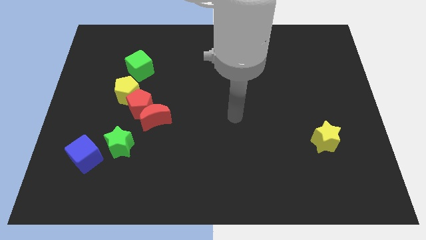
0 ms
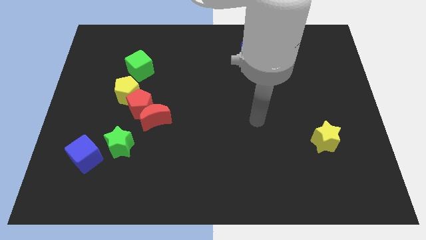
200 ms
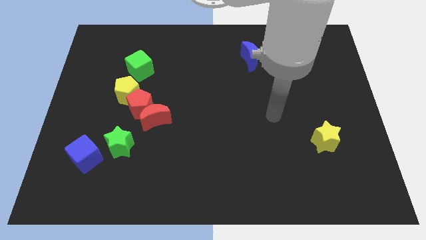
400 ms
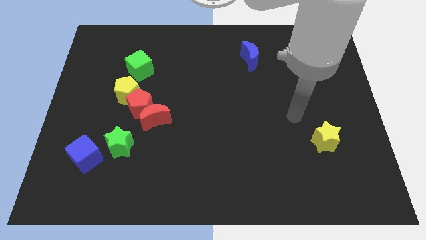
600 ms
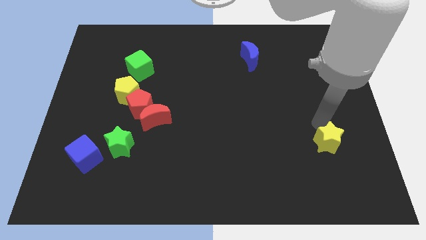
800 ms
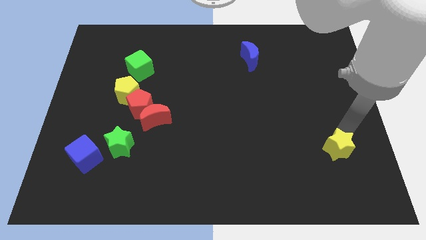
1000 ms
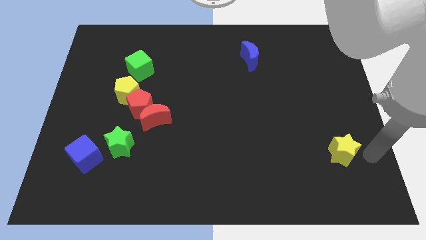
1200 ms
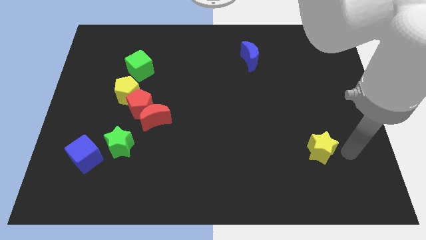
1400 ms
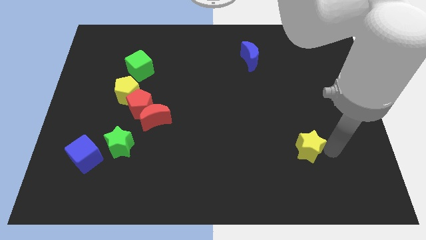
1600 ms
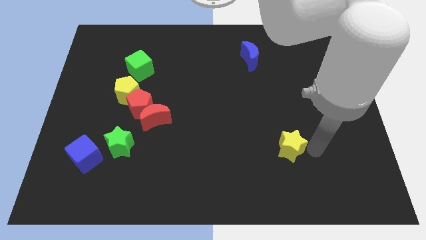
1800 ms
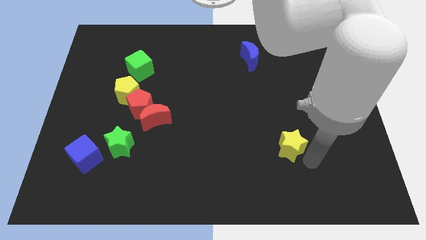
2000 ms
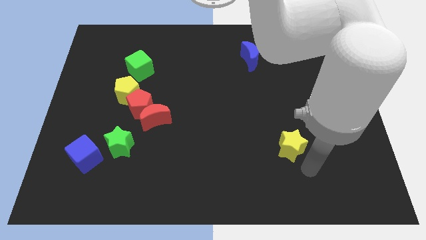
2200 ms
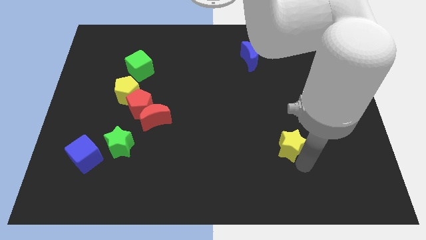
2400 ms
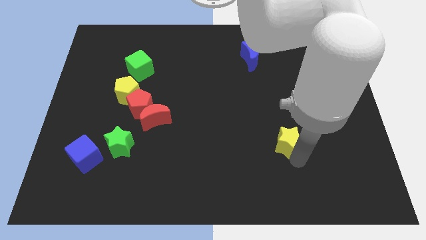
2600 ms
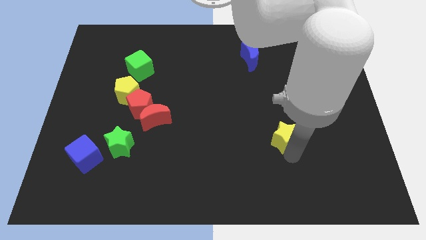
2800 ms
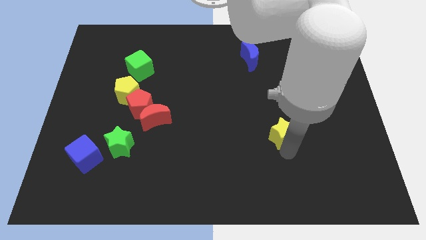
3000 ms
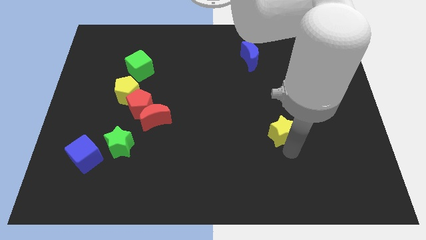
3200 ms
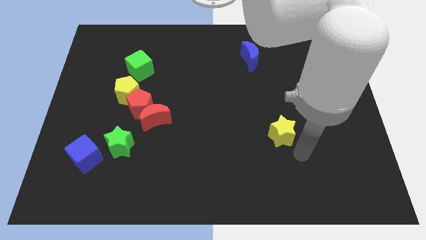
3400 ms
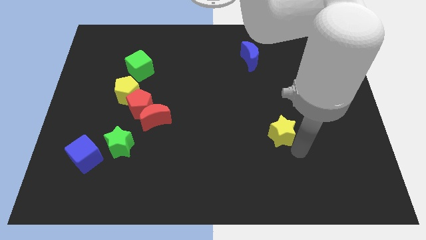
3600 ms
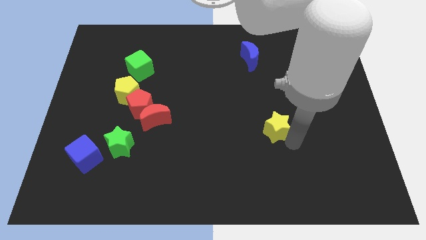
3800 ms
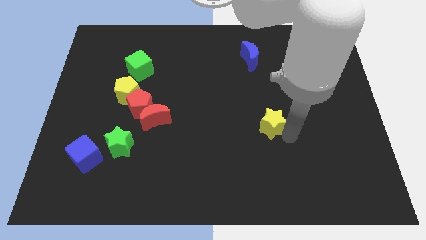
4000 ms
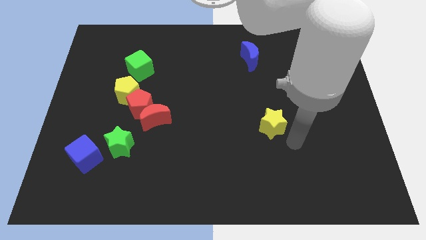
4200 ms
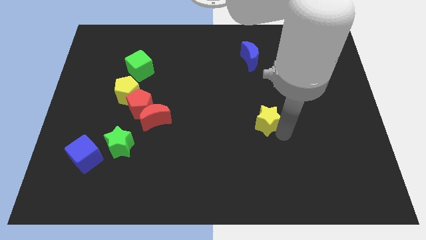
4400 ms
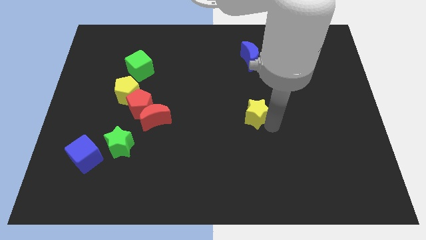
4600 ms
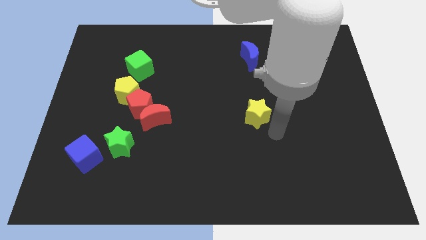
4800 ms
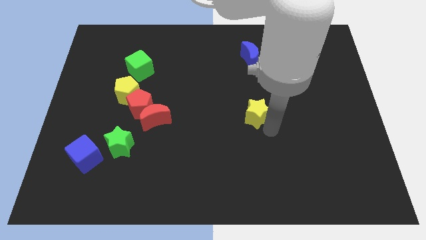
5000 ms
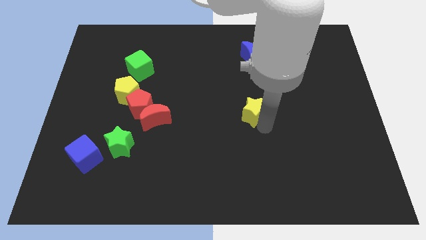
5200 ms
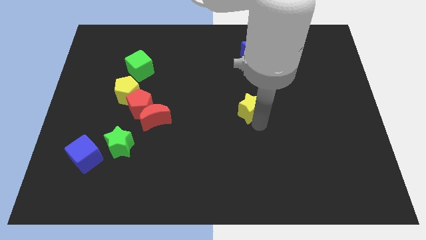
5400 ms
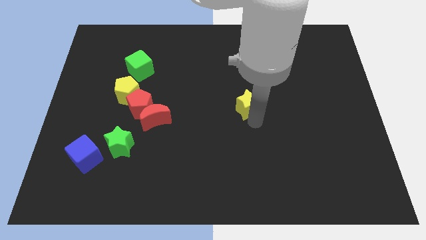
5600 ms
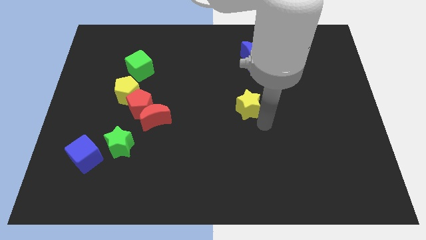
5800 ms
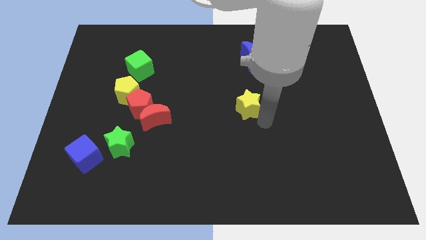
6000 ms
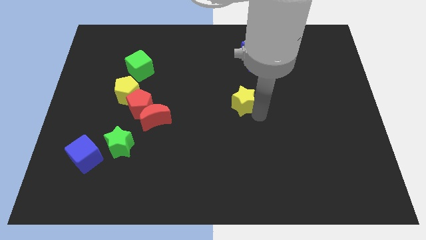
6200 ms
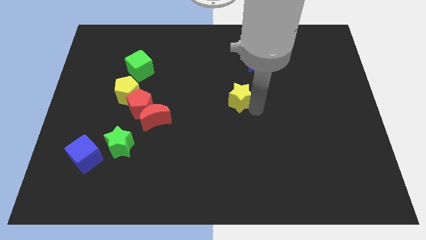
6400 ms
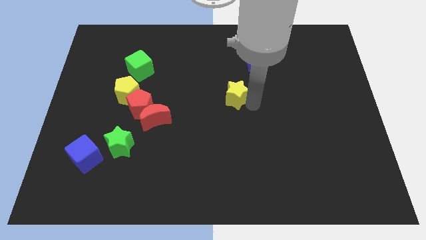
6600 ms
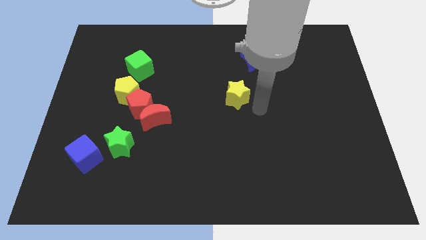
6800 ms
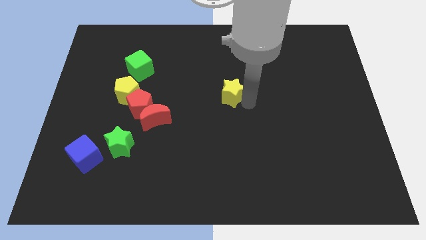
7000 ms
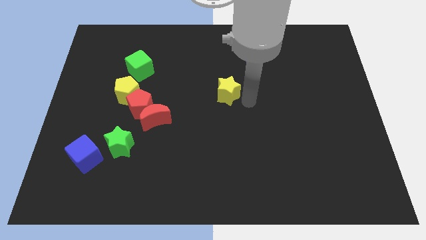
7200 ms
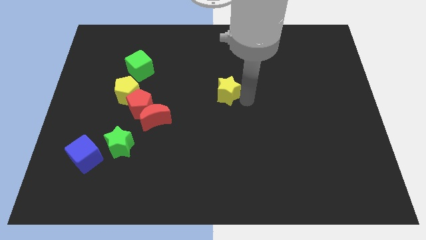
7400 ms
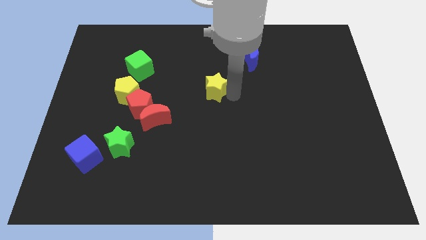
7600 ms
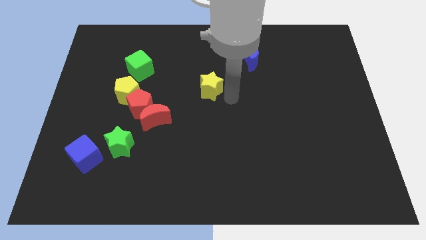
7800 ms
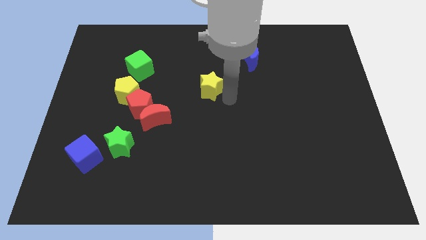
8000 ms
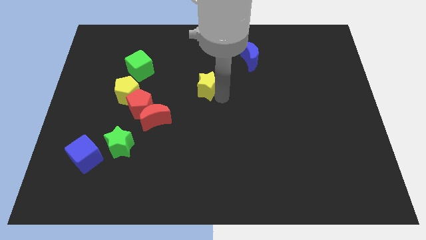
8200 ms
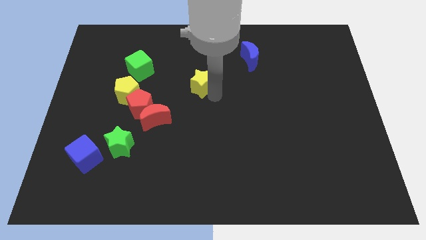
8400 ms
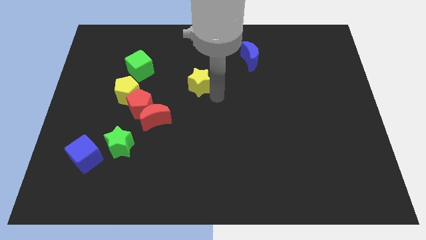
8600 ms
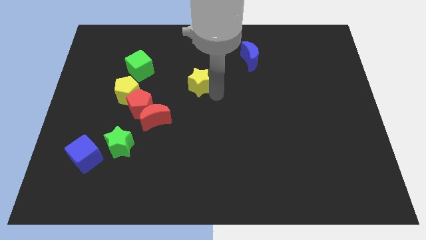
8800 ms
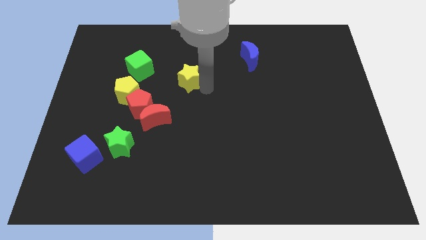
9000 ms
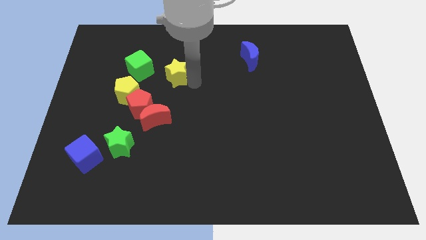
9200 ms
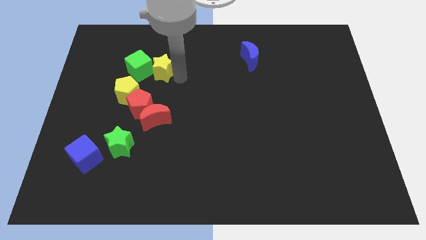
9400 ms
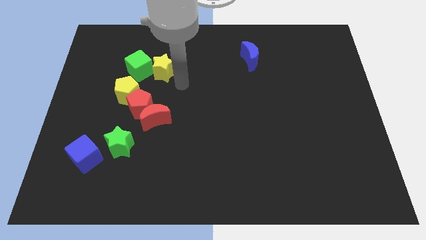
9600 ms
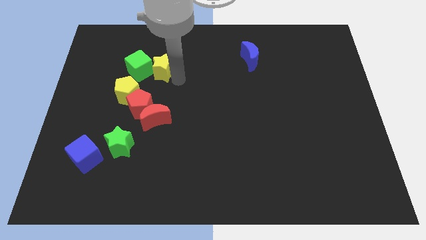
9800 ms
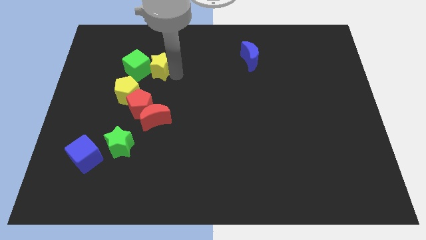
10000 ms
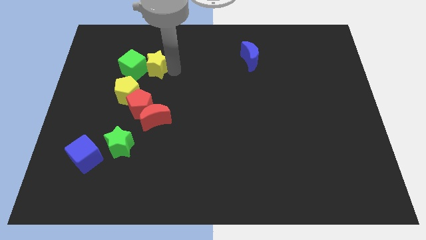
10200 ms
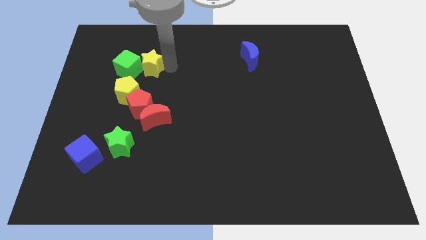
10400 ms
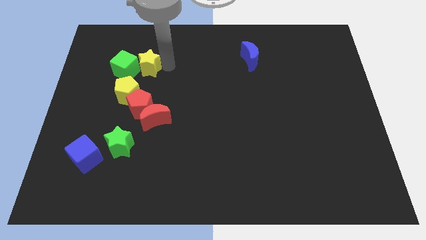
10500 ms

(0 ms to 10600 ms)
slide the yellow star above the yellow pentagon

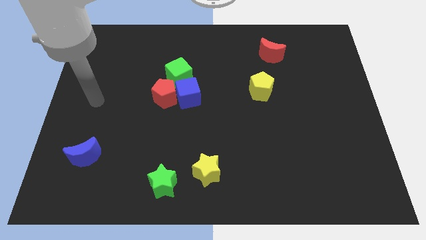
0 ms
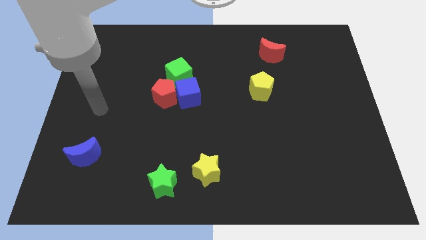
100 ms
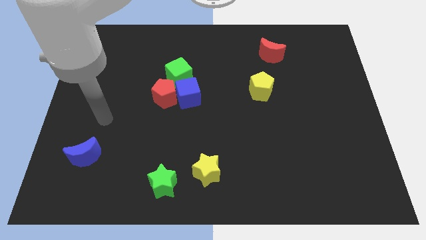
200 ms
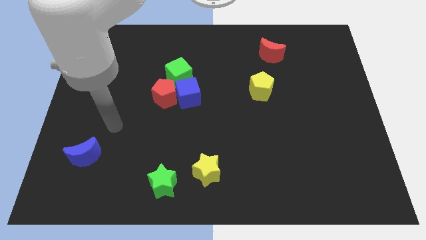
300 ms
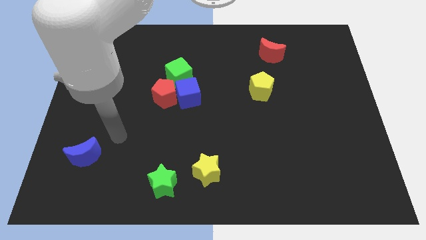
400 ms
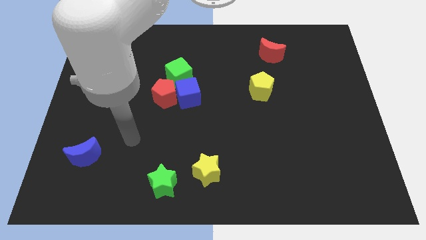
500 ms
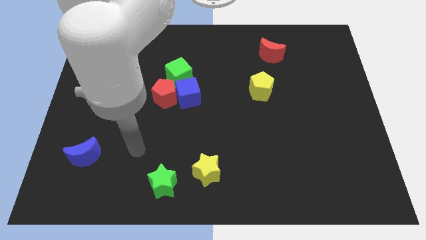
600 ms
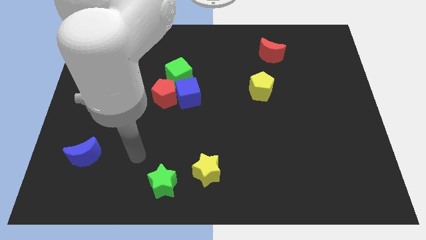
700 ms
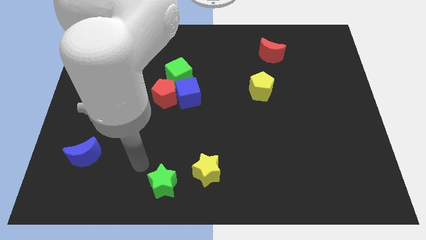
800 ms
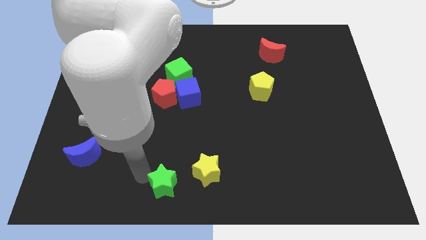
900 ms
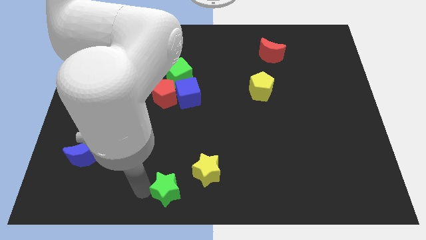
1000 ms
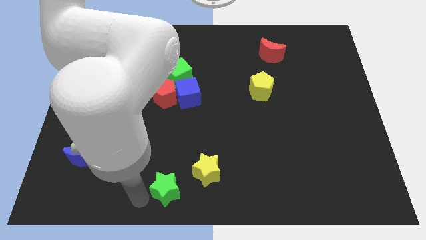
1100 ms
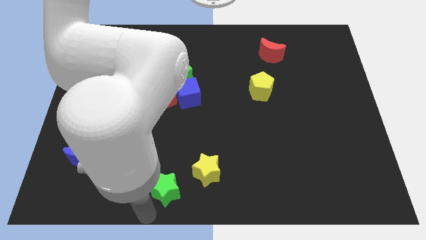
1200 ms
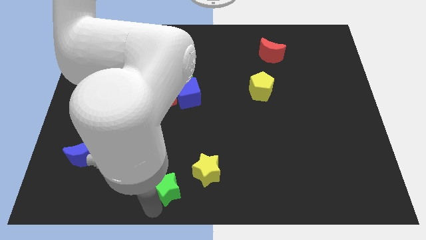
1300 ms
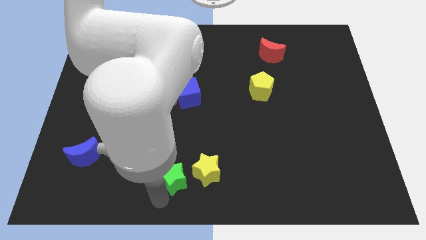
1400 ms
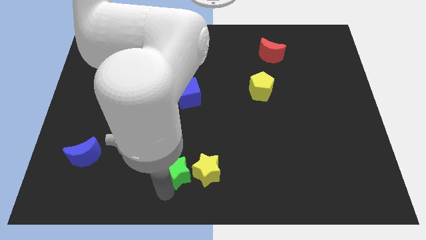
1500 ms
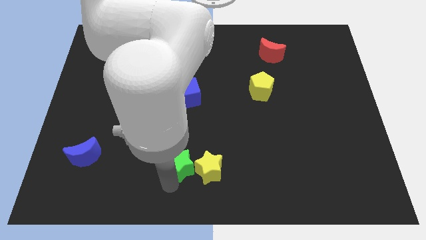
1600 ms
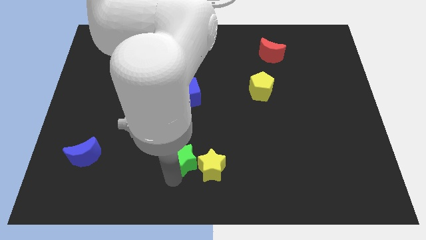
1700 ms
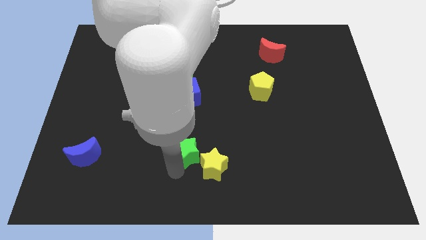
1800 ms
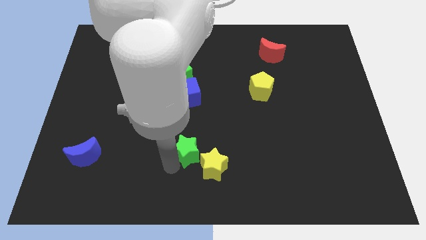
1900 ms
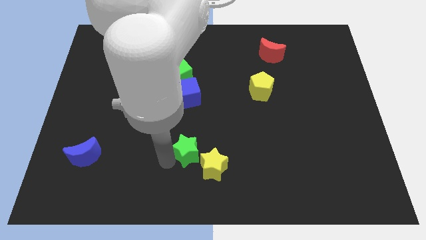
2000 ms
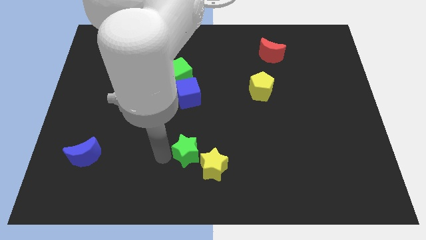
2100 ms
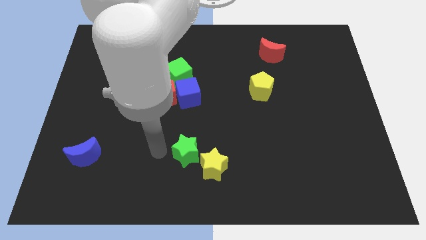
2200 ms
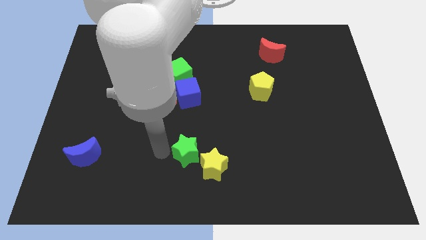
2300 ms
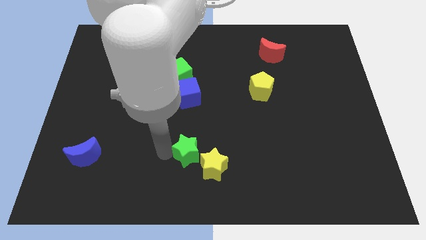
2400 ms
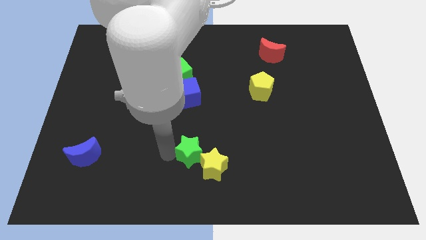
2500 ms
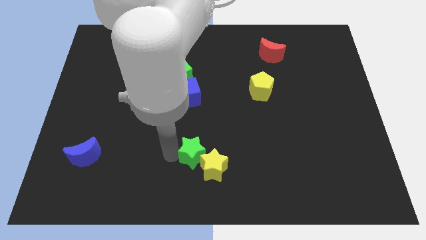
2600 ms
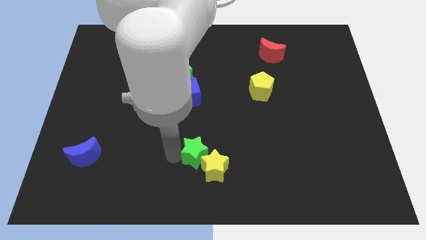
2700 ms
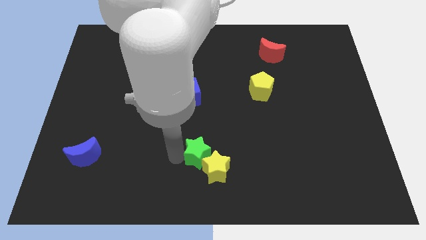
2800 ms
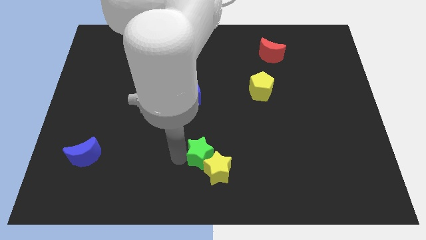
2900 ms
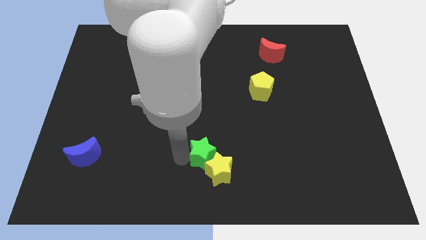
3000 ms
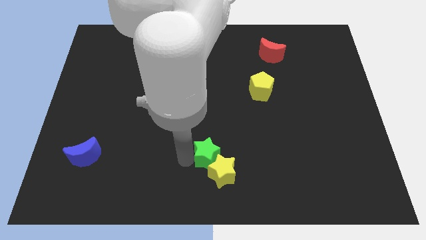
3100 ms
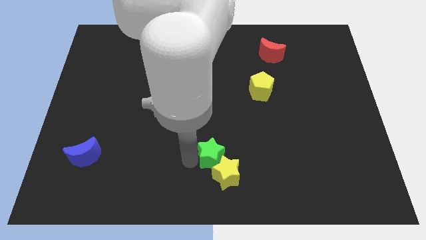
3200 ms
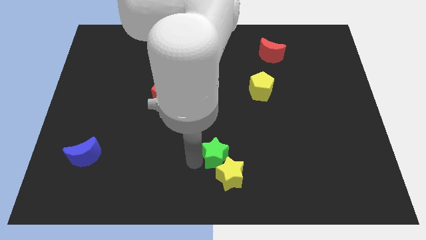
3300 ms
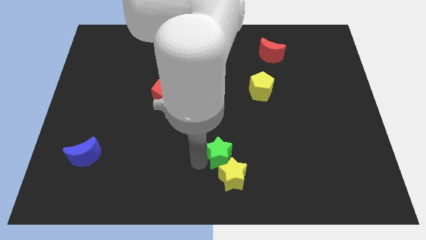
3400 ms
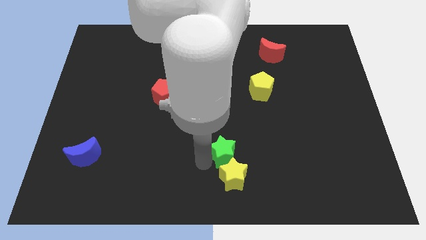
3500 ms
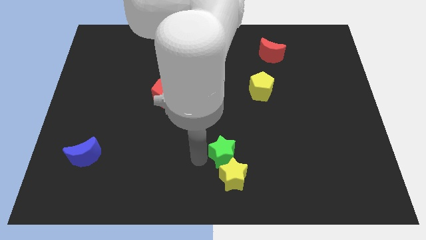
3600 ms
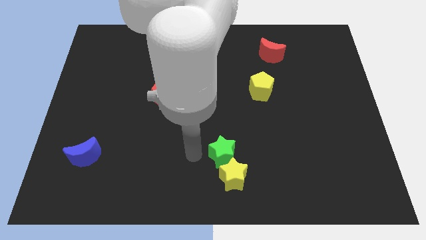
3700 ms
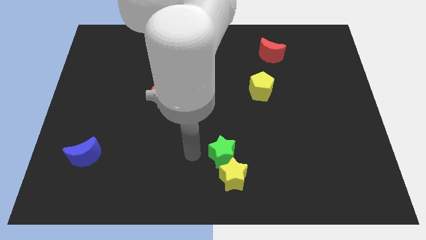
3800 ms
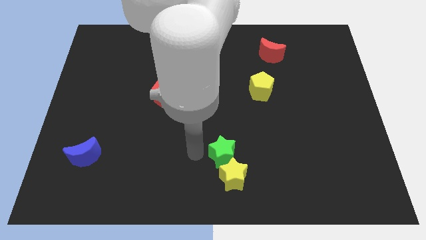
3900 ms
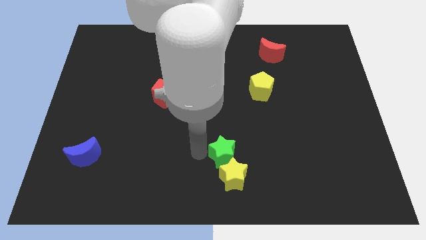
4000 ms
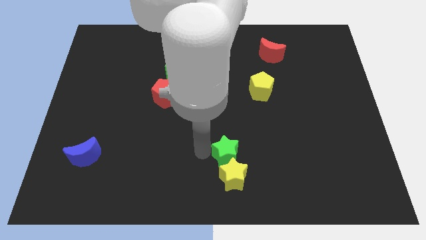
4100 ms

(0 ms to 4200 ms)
move the green star diagonally up and to the right of the yellow star
